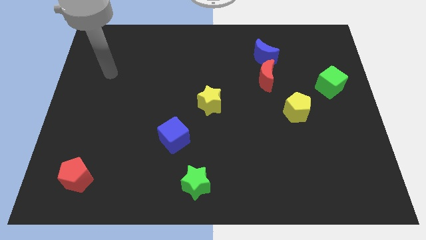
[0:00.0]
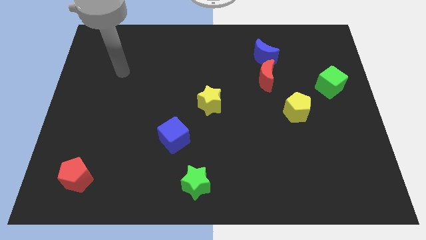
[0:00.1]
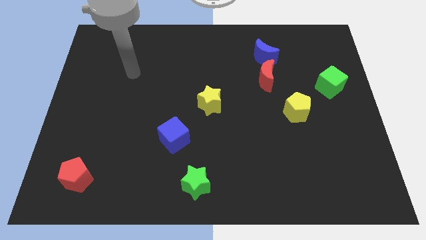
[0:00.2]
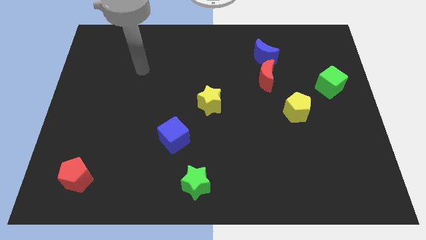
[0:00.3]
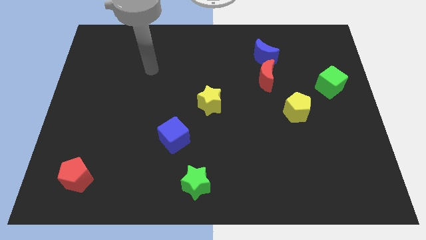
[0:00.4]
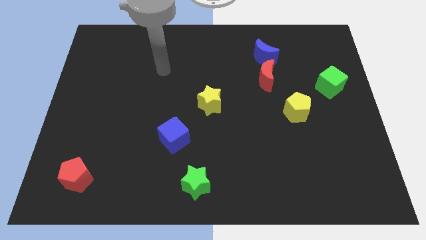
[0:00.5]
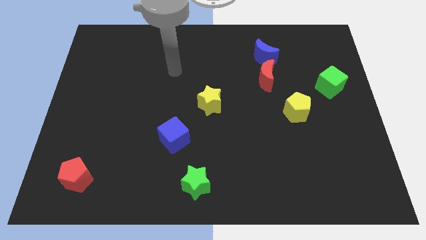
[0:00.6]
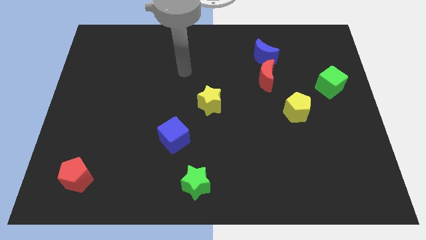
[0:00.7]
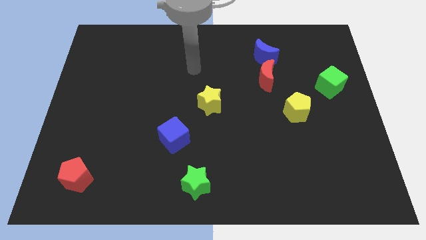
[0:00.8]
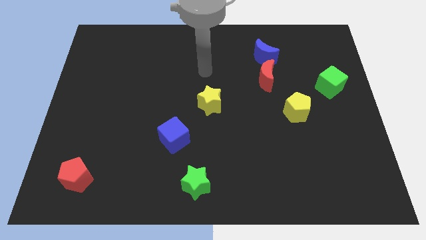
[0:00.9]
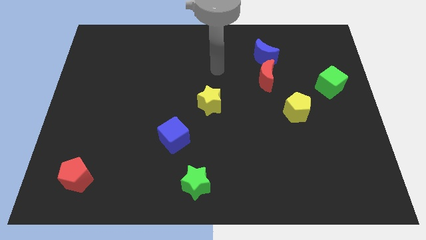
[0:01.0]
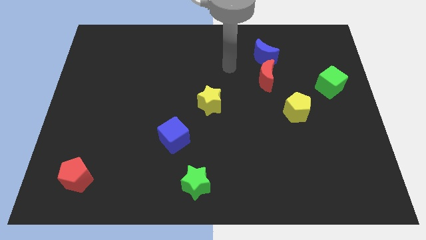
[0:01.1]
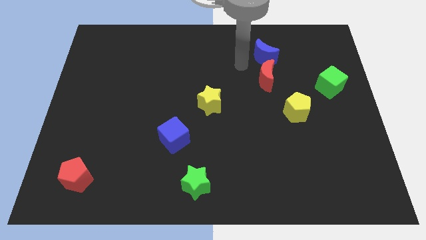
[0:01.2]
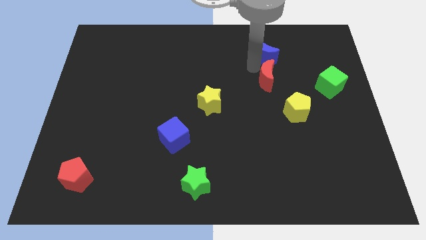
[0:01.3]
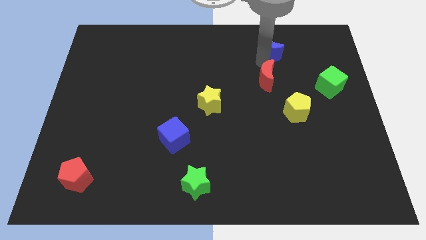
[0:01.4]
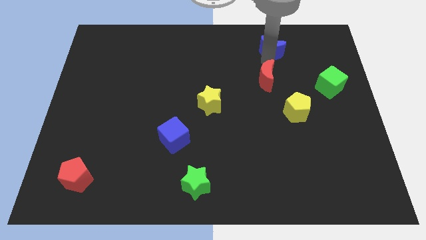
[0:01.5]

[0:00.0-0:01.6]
pull the red moon apart from the blue moon

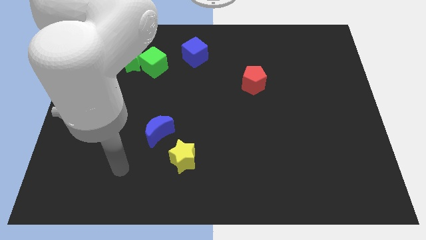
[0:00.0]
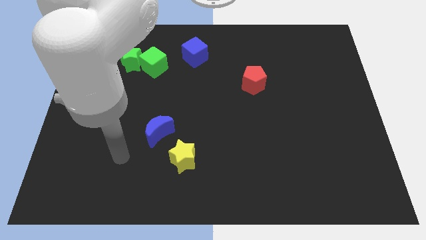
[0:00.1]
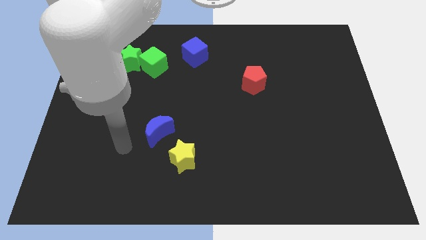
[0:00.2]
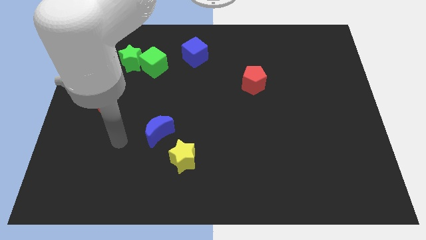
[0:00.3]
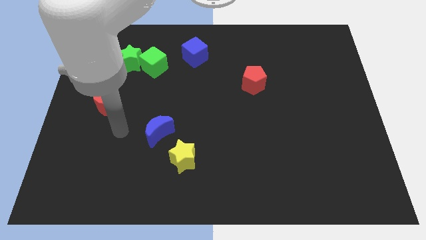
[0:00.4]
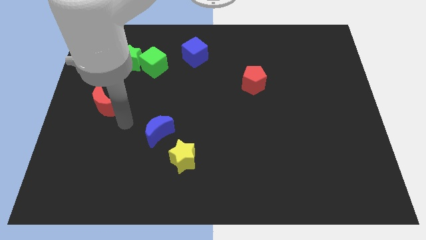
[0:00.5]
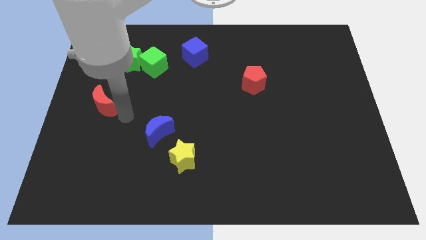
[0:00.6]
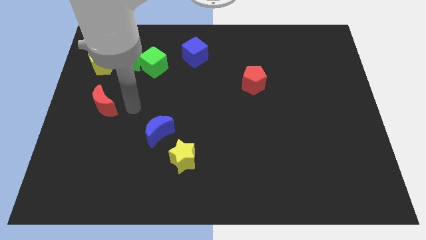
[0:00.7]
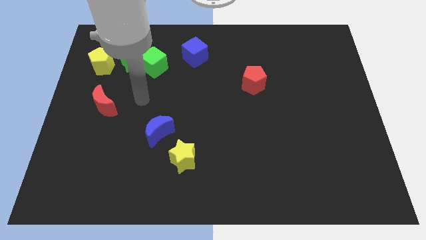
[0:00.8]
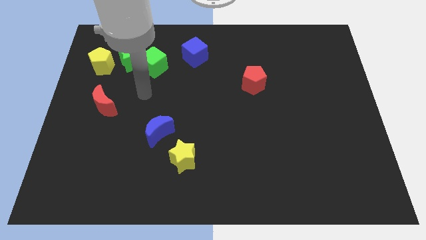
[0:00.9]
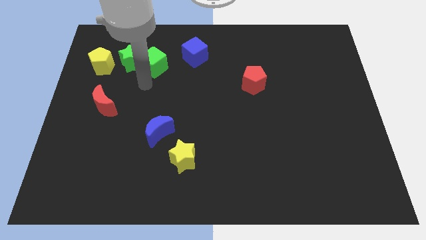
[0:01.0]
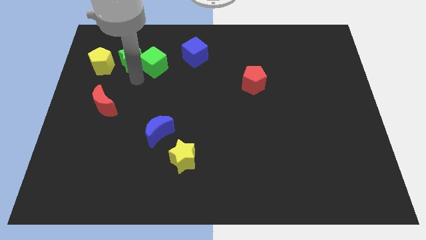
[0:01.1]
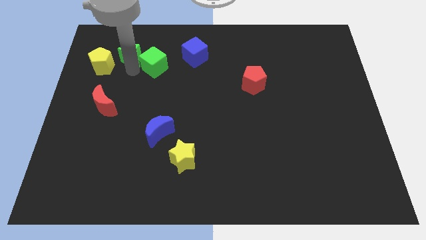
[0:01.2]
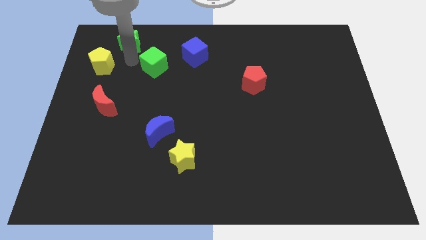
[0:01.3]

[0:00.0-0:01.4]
separate the green cube from the green star

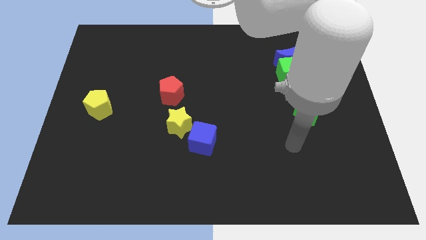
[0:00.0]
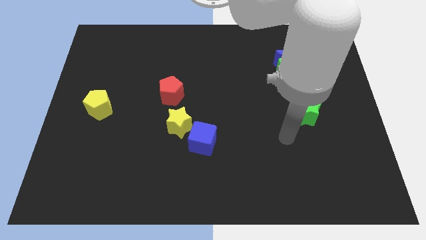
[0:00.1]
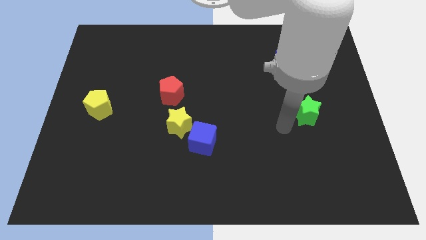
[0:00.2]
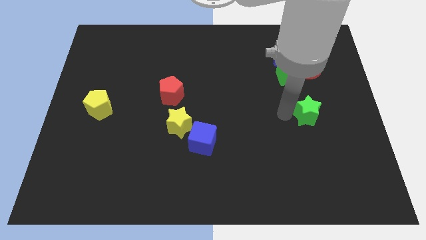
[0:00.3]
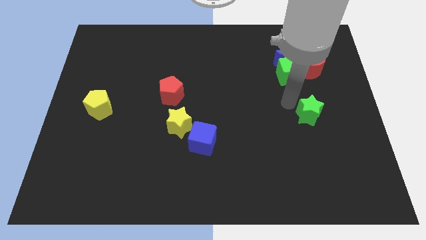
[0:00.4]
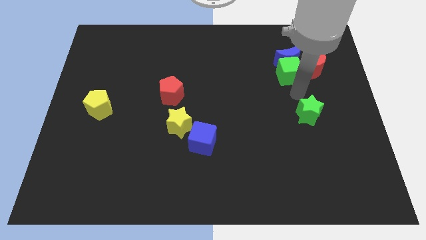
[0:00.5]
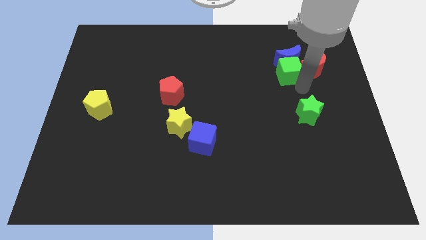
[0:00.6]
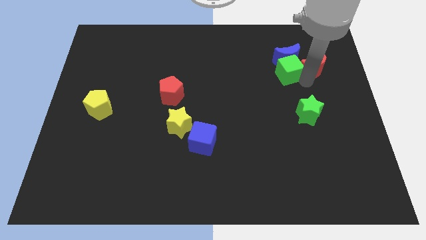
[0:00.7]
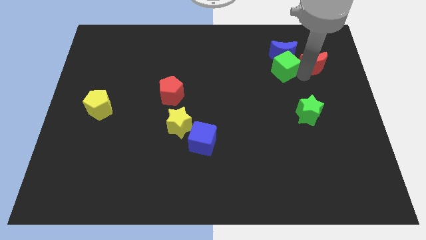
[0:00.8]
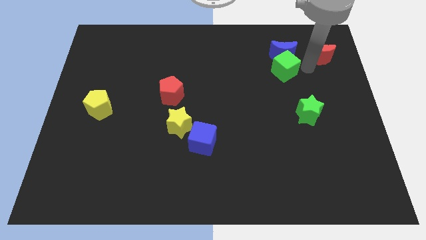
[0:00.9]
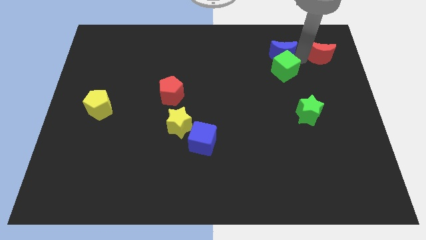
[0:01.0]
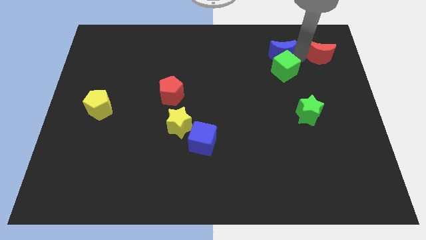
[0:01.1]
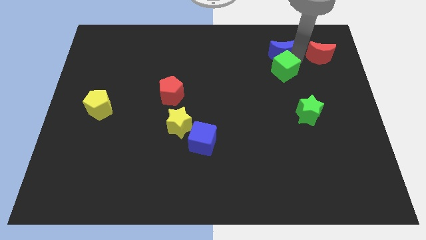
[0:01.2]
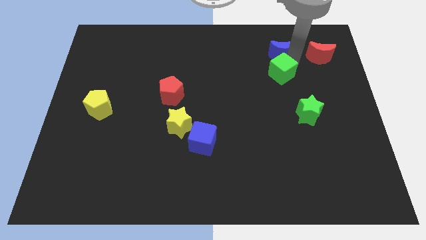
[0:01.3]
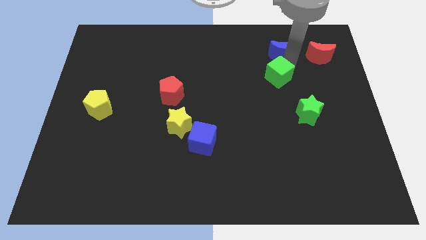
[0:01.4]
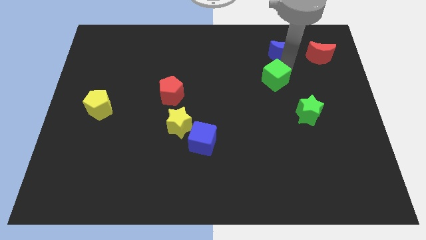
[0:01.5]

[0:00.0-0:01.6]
separate the green cube from the blue moon and red moon

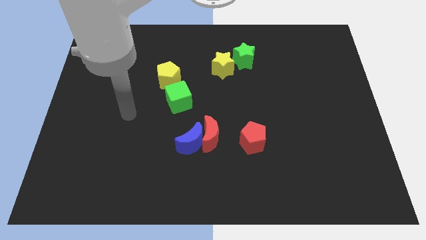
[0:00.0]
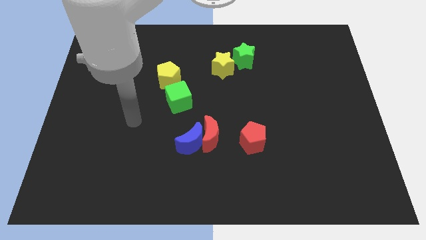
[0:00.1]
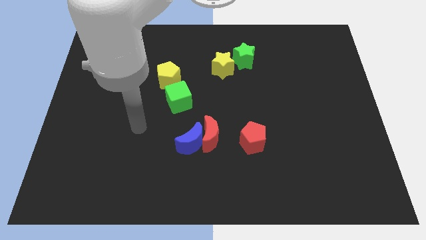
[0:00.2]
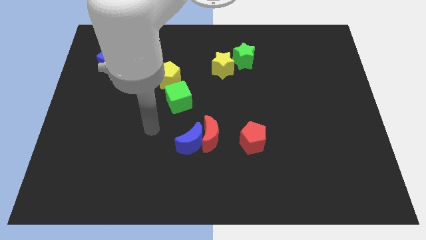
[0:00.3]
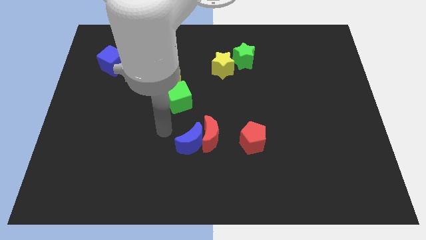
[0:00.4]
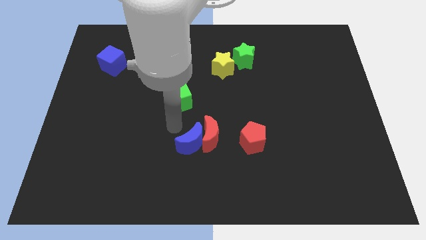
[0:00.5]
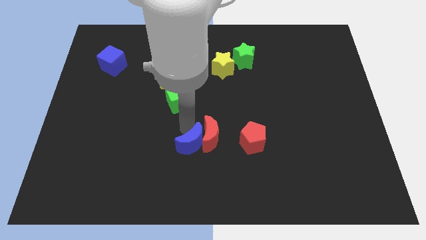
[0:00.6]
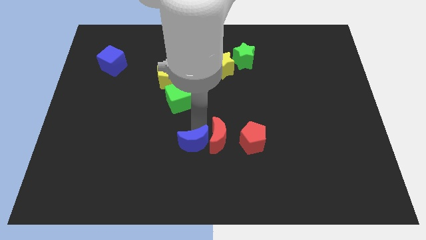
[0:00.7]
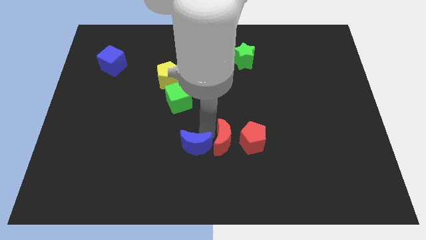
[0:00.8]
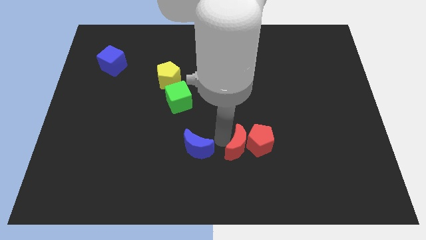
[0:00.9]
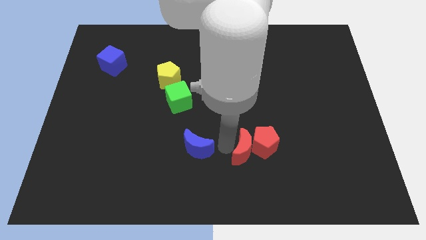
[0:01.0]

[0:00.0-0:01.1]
separate the blue moon from the red moon

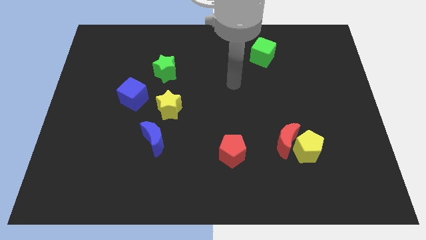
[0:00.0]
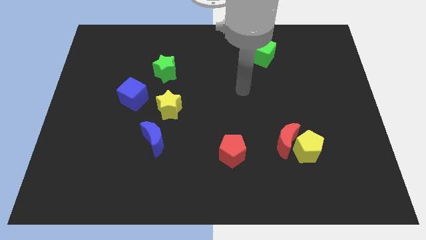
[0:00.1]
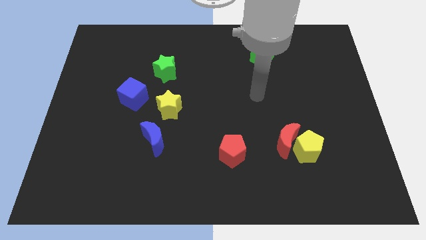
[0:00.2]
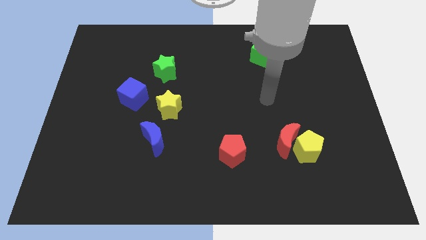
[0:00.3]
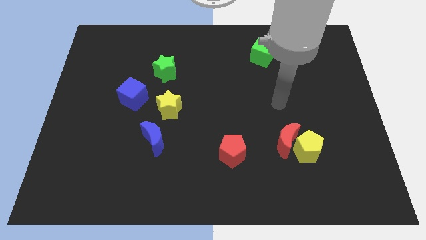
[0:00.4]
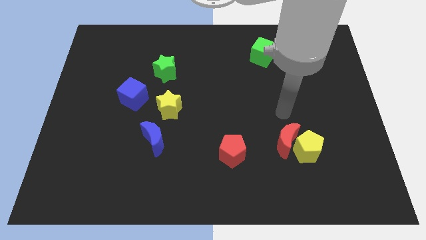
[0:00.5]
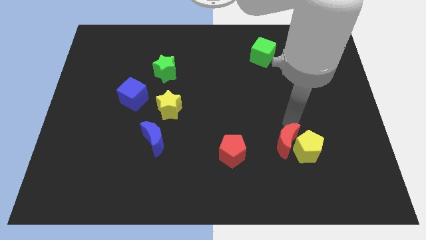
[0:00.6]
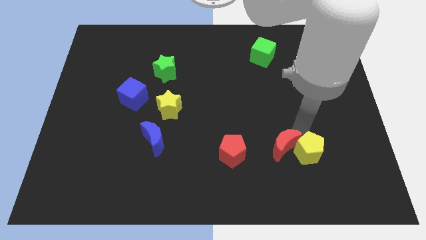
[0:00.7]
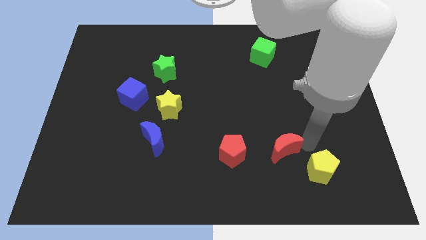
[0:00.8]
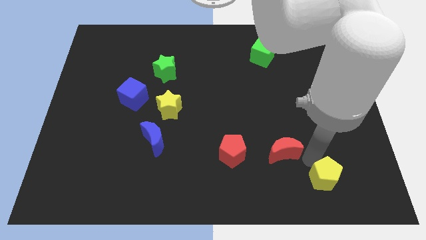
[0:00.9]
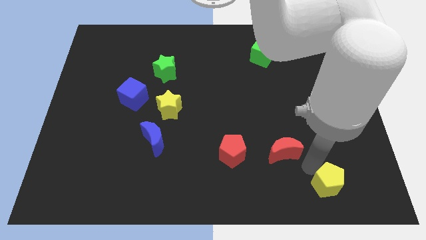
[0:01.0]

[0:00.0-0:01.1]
pull the red moon apart from the yellow pentagon

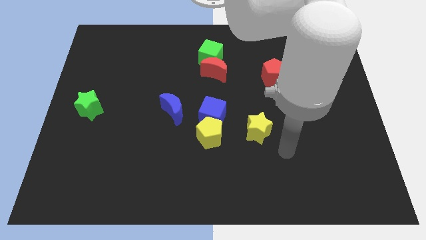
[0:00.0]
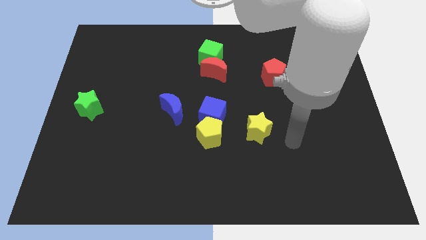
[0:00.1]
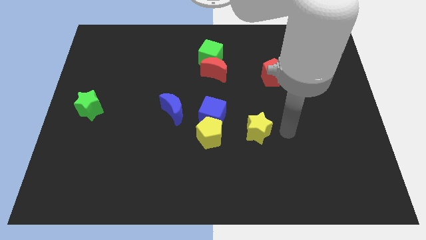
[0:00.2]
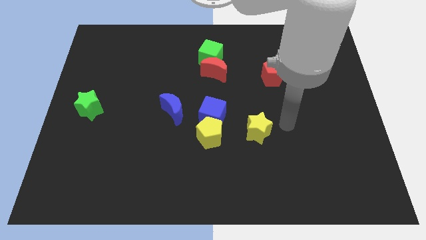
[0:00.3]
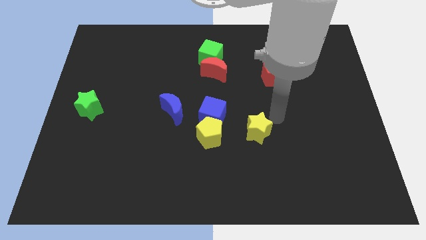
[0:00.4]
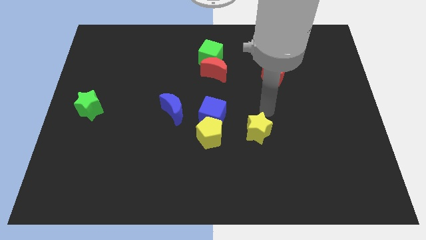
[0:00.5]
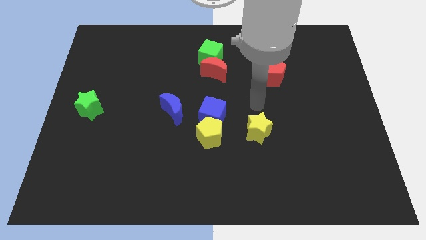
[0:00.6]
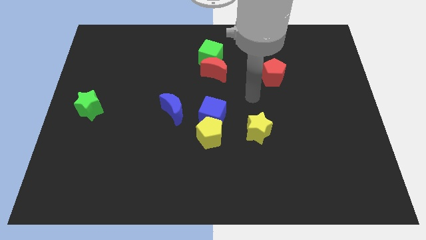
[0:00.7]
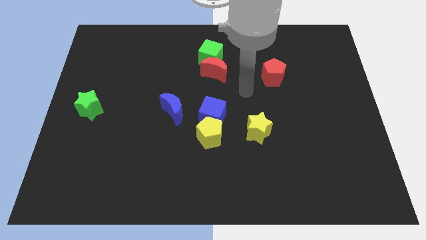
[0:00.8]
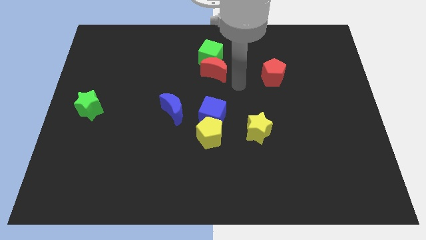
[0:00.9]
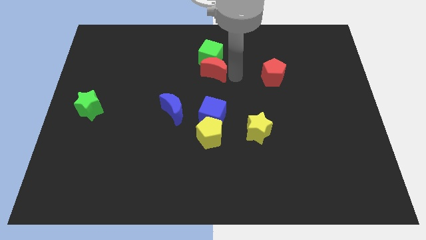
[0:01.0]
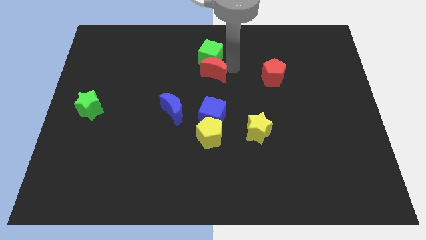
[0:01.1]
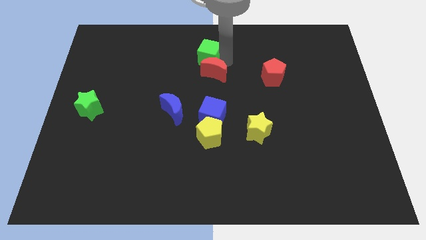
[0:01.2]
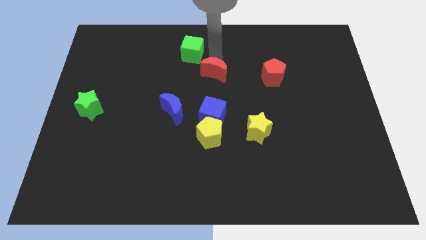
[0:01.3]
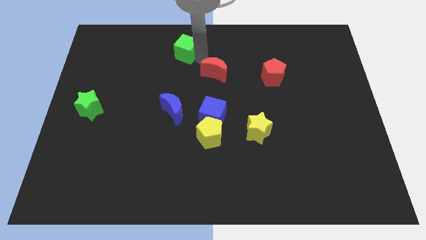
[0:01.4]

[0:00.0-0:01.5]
separate the red moon from the green cube

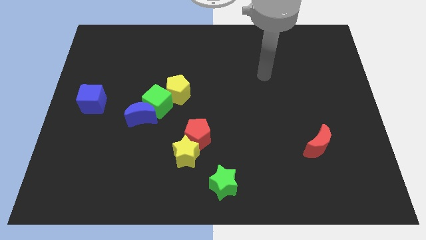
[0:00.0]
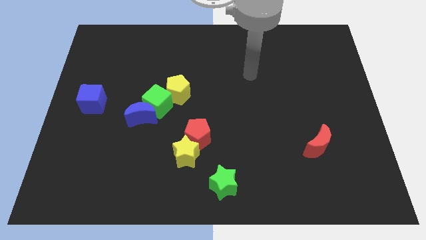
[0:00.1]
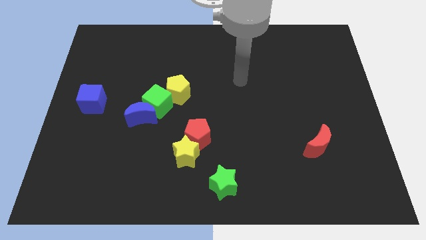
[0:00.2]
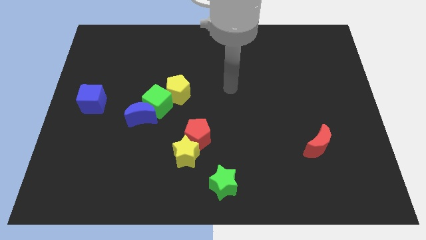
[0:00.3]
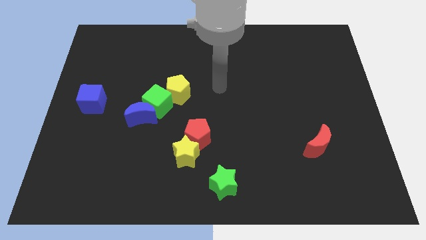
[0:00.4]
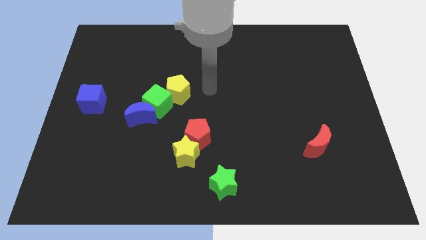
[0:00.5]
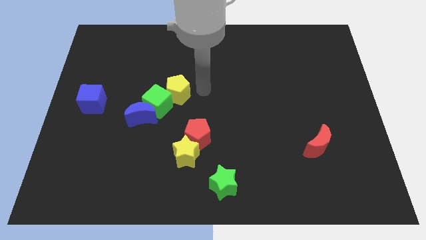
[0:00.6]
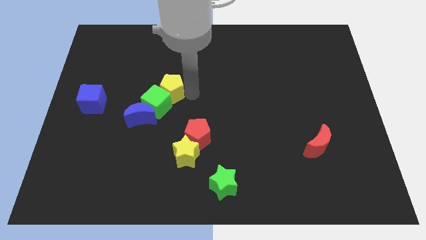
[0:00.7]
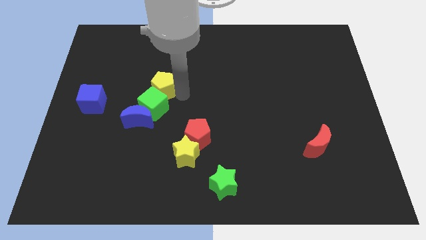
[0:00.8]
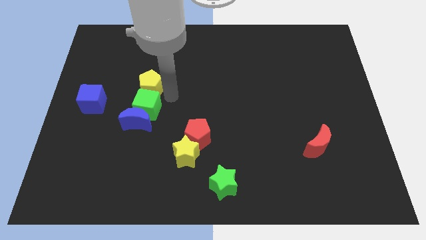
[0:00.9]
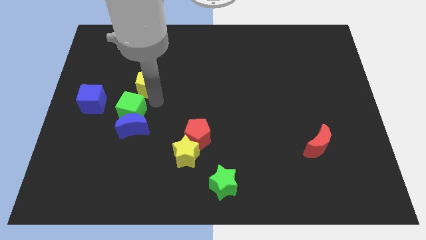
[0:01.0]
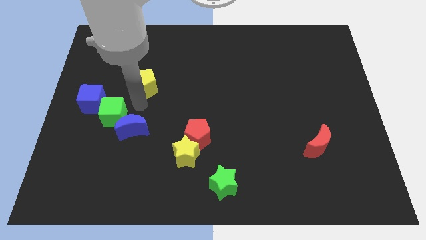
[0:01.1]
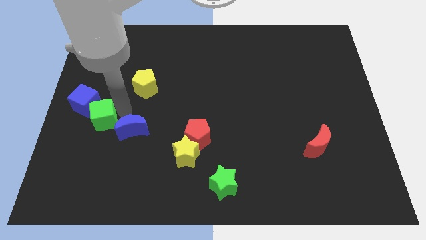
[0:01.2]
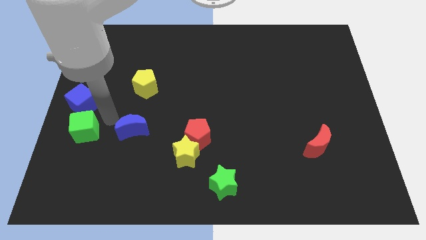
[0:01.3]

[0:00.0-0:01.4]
move the blue moon away from the green cube
